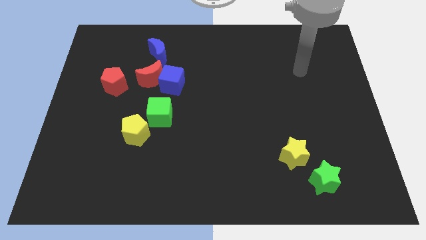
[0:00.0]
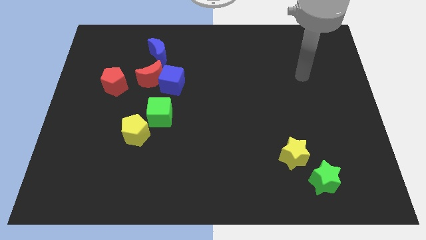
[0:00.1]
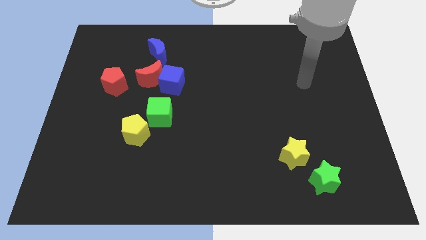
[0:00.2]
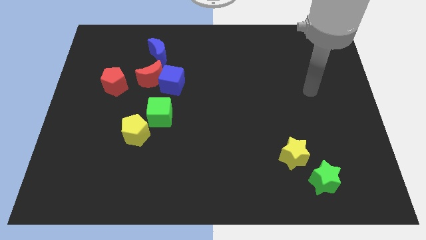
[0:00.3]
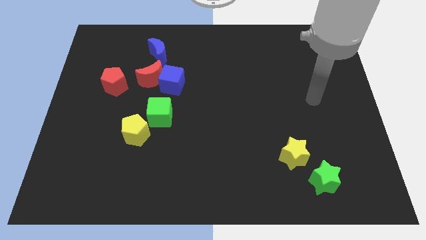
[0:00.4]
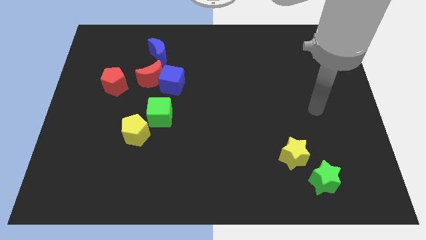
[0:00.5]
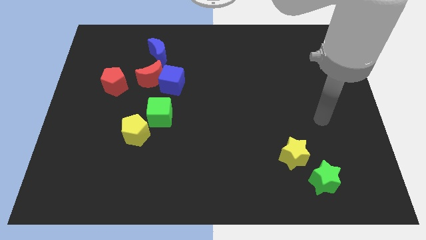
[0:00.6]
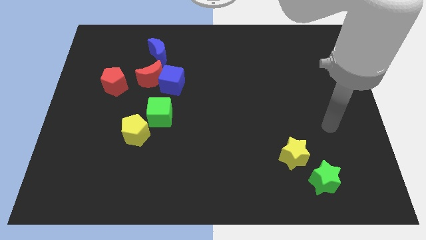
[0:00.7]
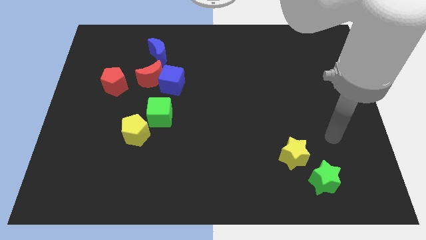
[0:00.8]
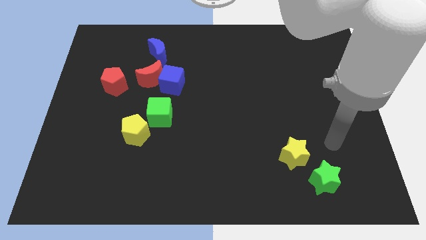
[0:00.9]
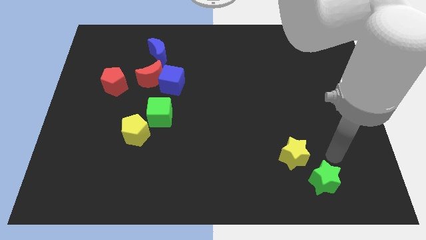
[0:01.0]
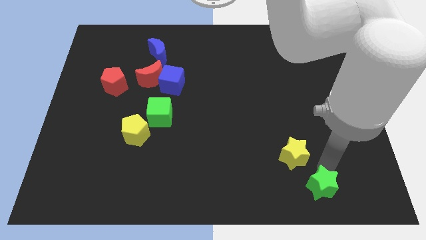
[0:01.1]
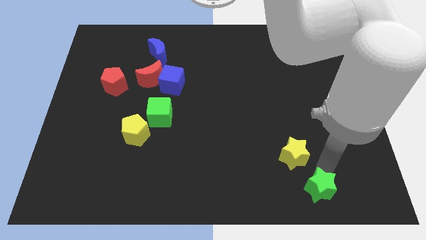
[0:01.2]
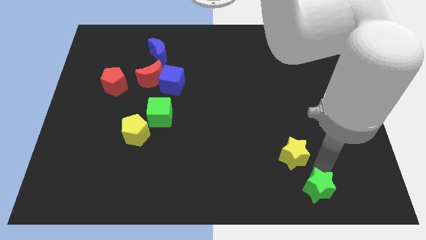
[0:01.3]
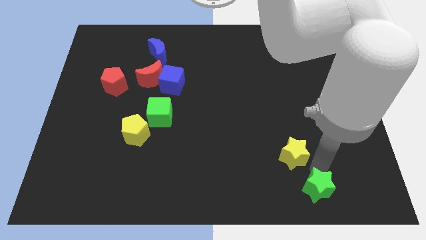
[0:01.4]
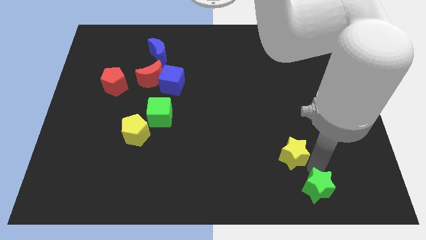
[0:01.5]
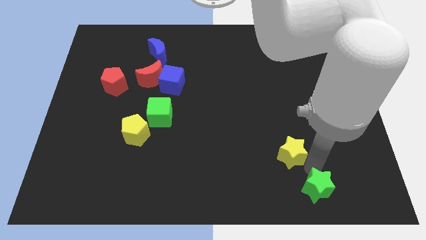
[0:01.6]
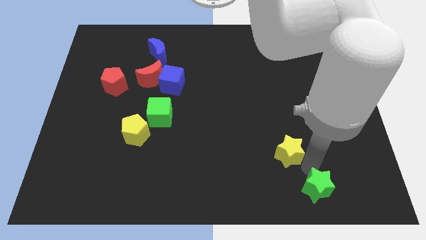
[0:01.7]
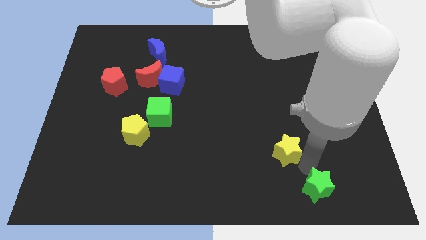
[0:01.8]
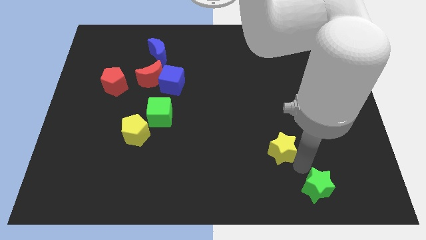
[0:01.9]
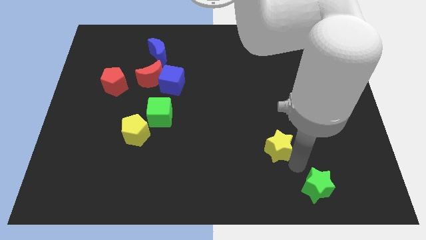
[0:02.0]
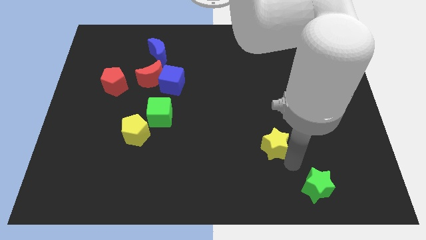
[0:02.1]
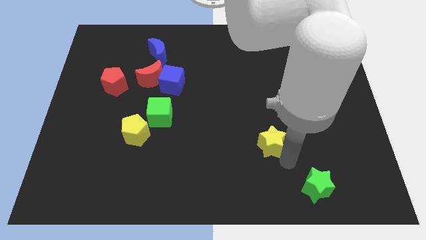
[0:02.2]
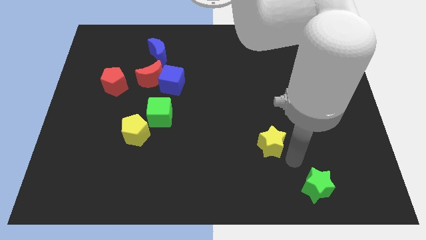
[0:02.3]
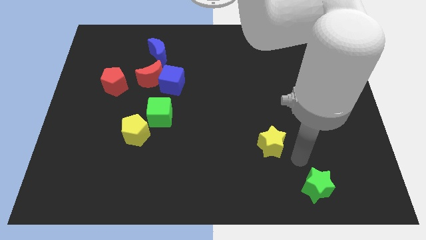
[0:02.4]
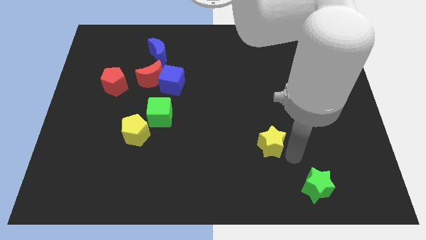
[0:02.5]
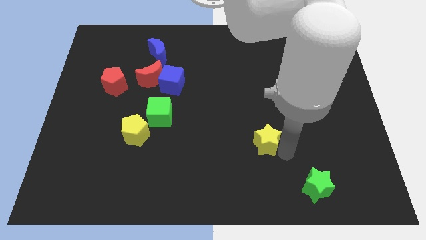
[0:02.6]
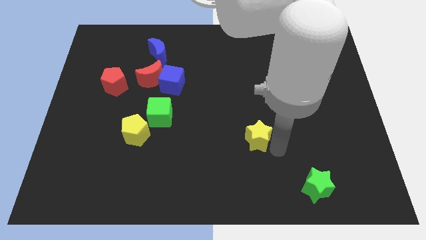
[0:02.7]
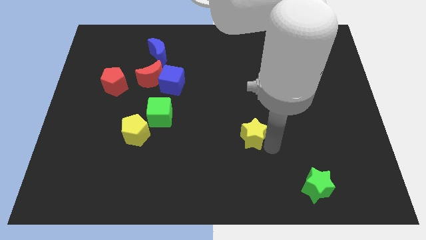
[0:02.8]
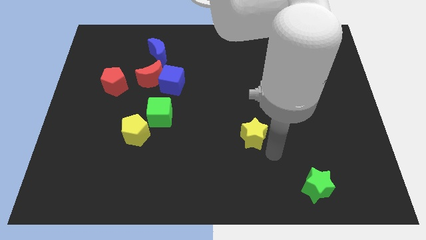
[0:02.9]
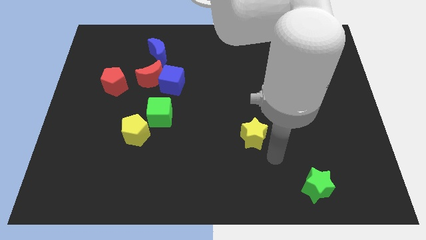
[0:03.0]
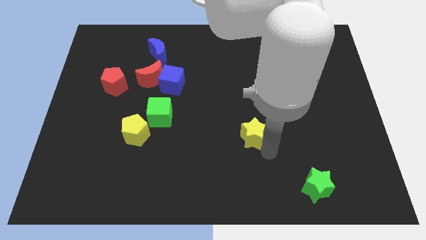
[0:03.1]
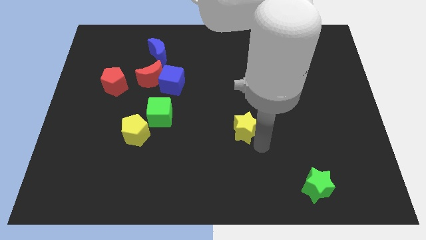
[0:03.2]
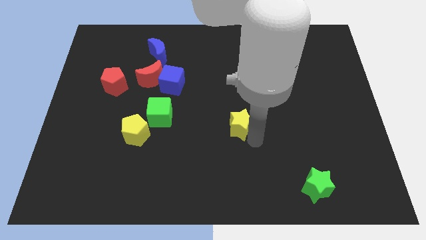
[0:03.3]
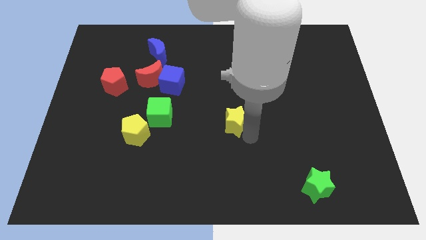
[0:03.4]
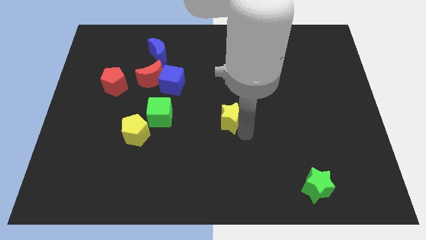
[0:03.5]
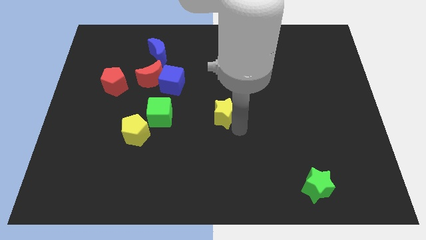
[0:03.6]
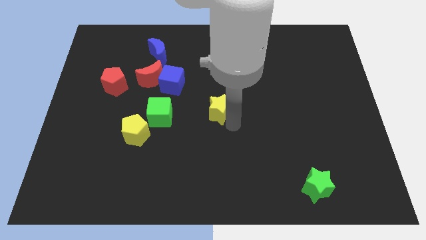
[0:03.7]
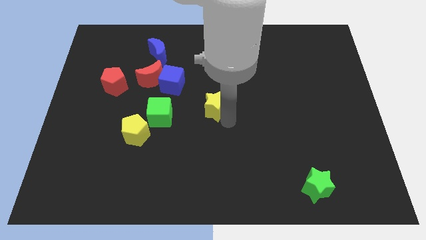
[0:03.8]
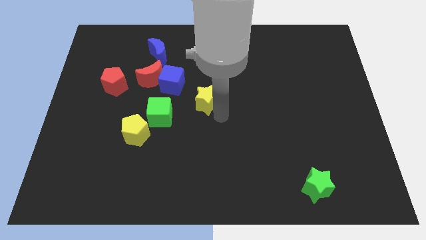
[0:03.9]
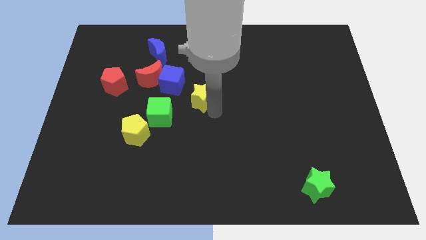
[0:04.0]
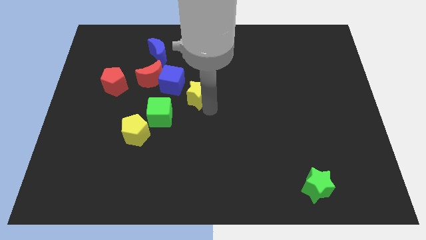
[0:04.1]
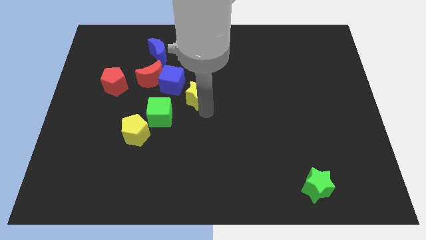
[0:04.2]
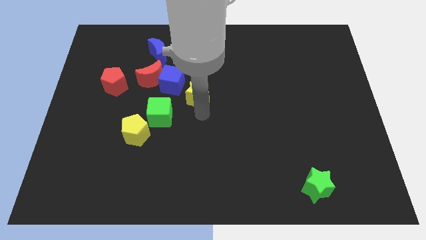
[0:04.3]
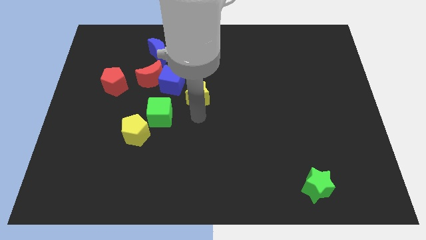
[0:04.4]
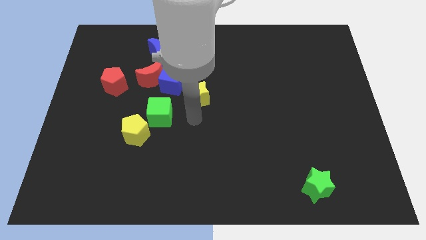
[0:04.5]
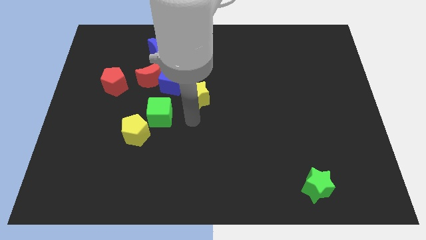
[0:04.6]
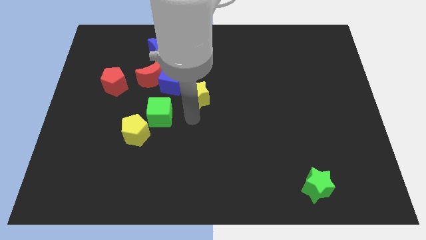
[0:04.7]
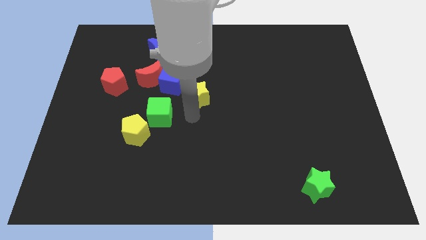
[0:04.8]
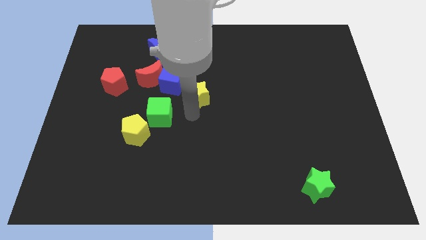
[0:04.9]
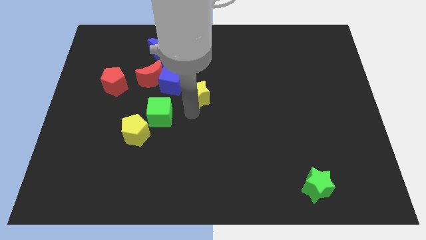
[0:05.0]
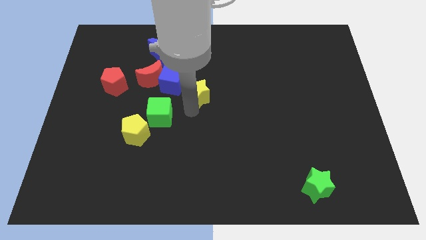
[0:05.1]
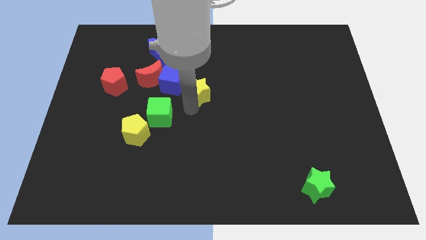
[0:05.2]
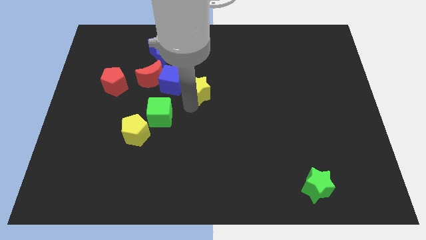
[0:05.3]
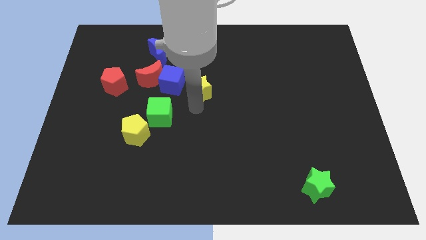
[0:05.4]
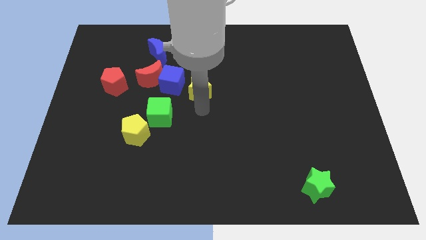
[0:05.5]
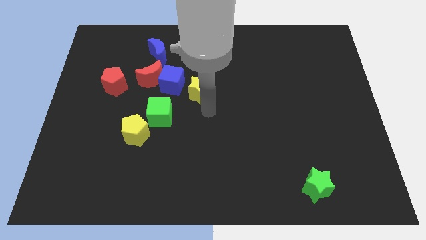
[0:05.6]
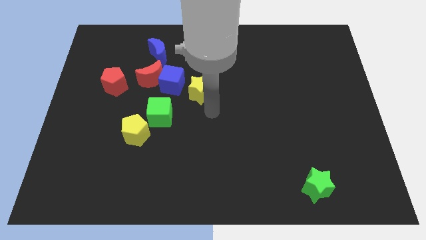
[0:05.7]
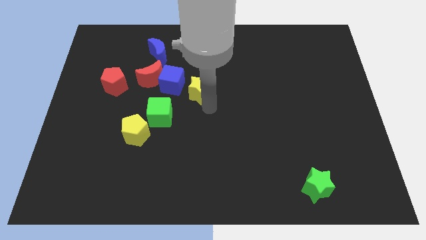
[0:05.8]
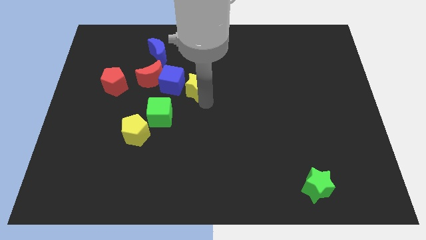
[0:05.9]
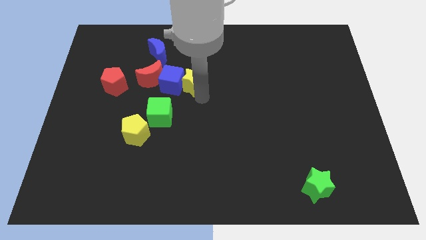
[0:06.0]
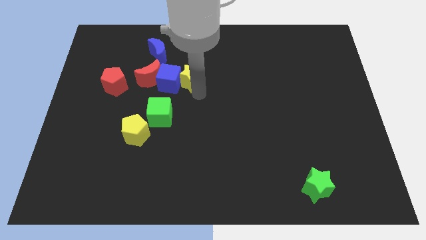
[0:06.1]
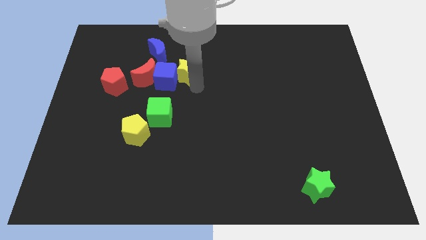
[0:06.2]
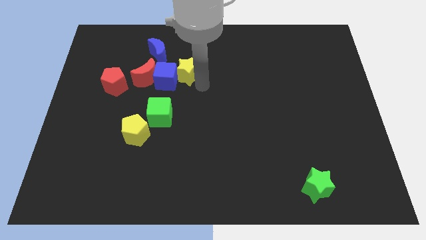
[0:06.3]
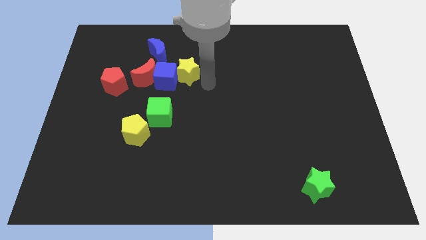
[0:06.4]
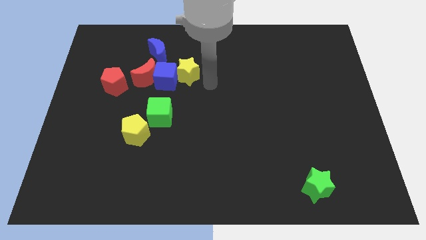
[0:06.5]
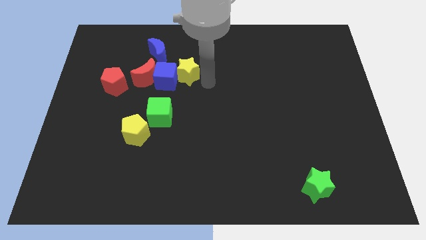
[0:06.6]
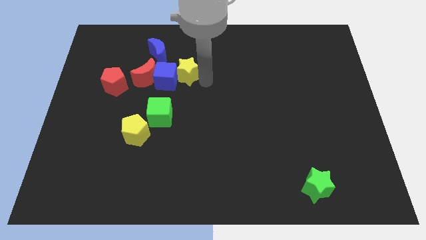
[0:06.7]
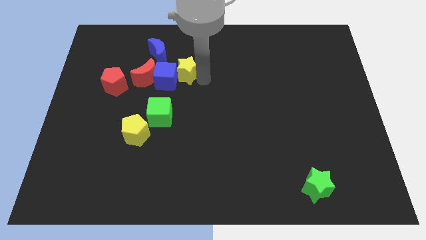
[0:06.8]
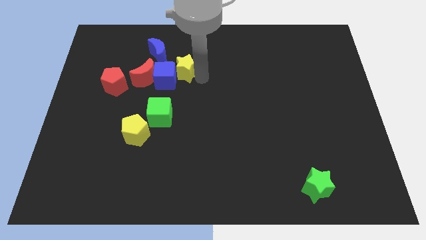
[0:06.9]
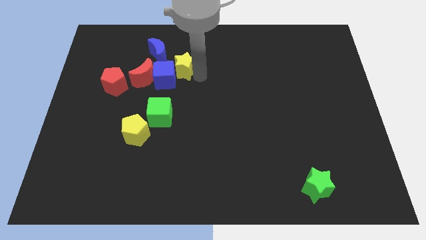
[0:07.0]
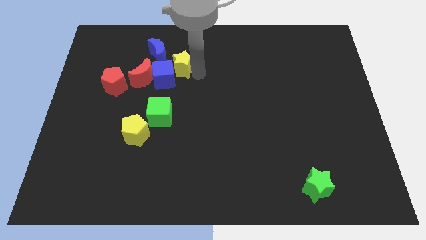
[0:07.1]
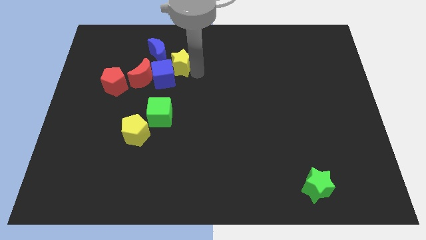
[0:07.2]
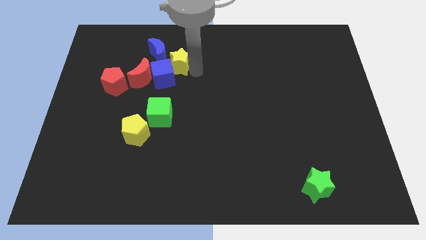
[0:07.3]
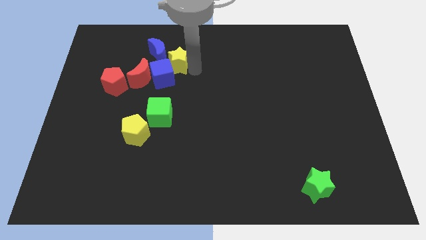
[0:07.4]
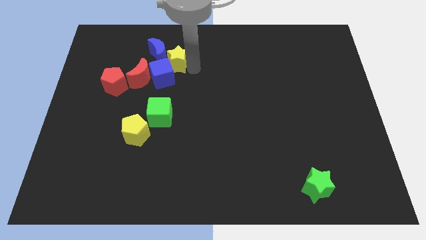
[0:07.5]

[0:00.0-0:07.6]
put the yellow star next to the blue moon
